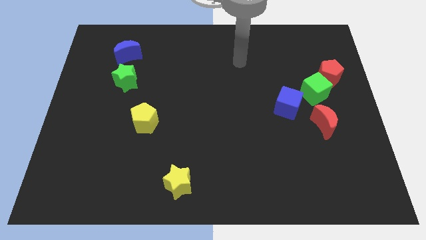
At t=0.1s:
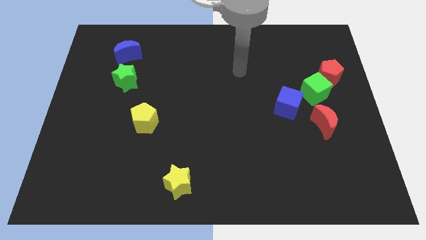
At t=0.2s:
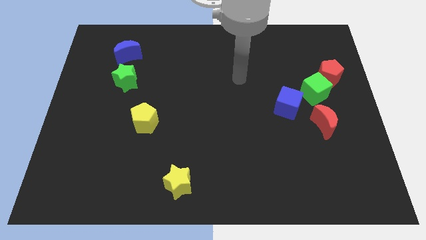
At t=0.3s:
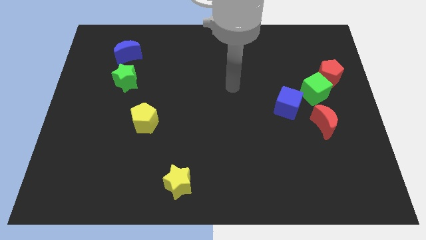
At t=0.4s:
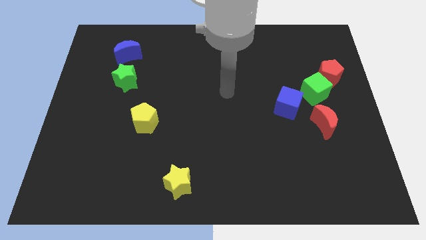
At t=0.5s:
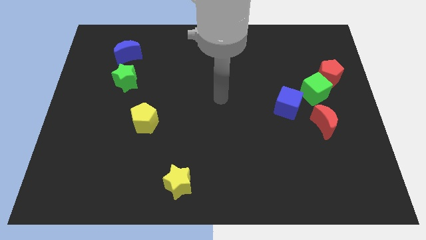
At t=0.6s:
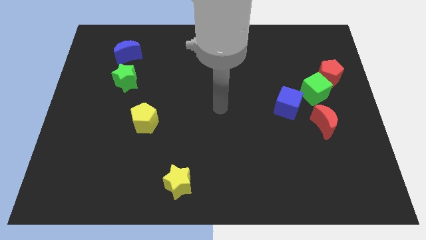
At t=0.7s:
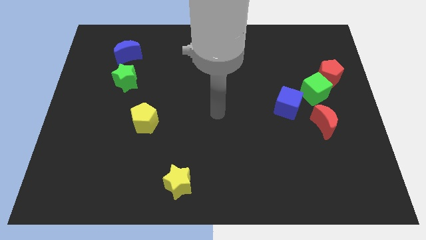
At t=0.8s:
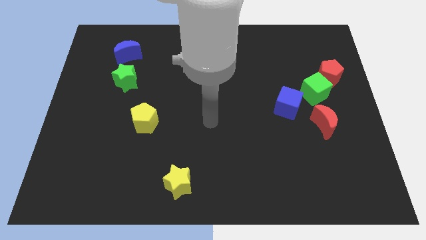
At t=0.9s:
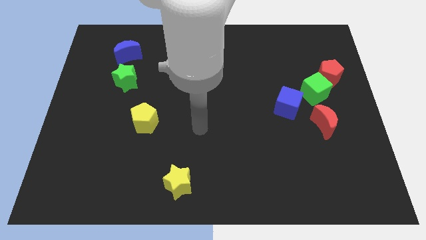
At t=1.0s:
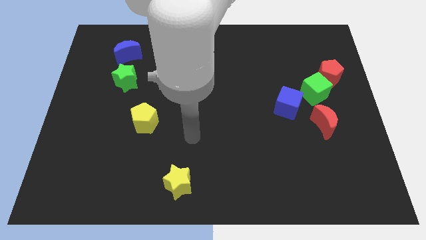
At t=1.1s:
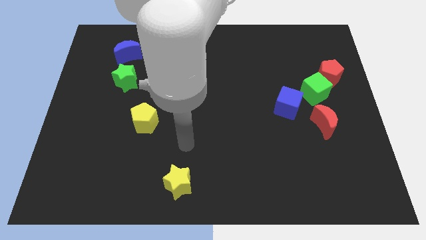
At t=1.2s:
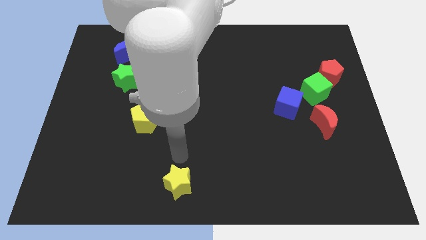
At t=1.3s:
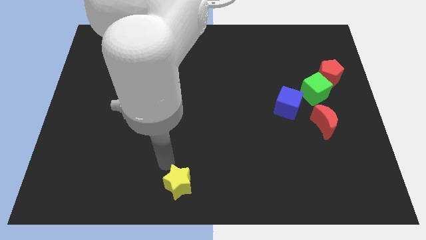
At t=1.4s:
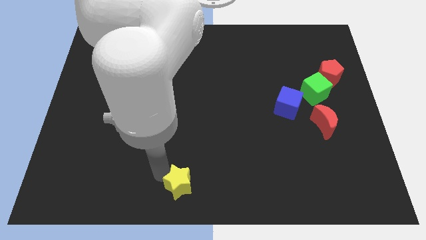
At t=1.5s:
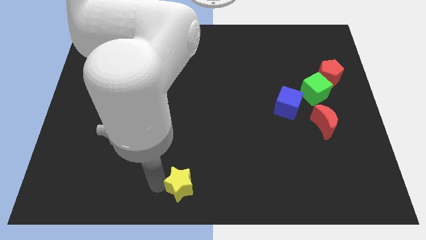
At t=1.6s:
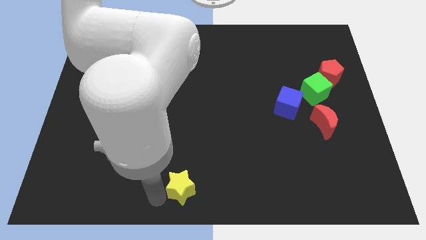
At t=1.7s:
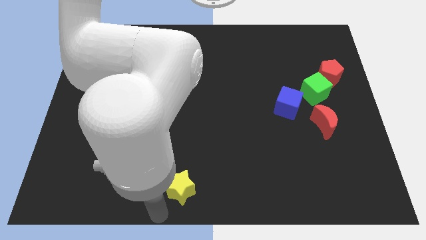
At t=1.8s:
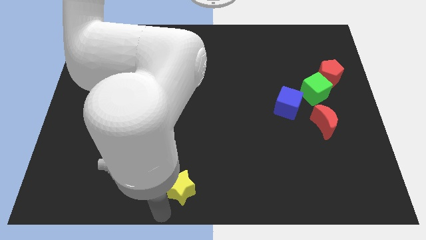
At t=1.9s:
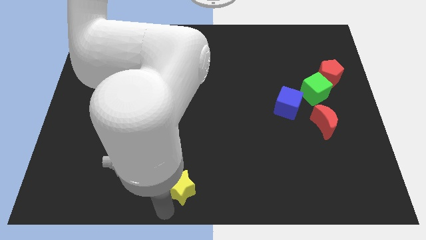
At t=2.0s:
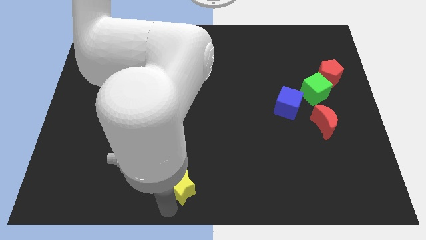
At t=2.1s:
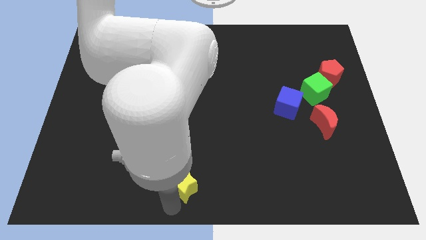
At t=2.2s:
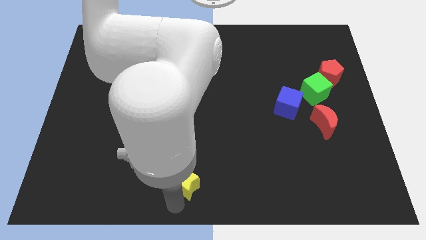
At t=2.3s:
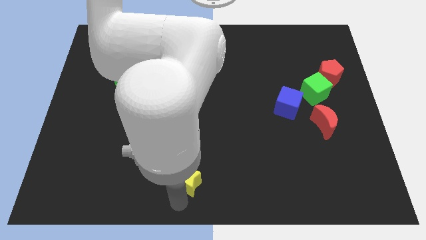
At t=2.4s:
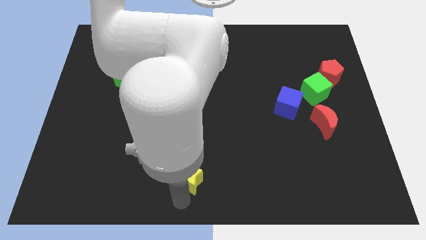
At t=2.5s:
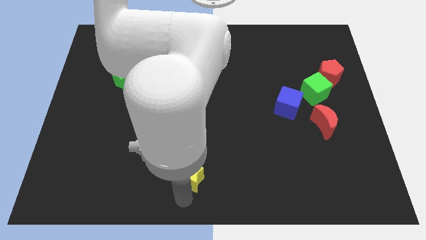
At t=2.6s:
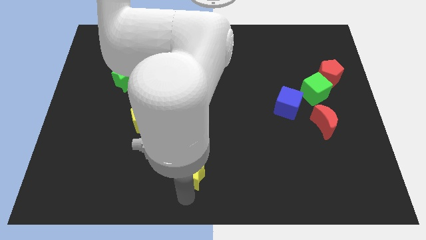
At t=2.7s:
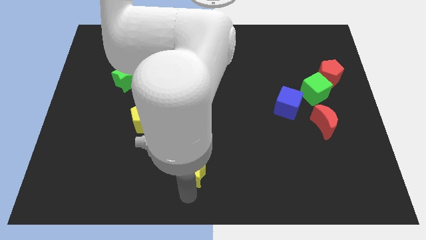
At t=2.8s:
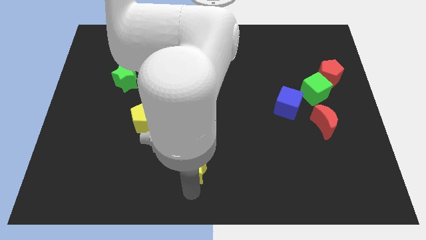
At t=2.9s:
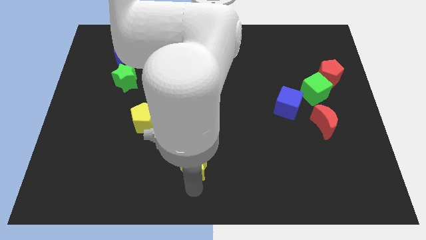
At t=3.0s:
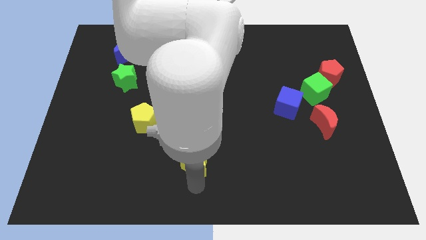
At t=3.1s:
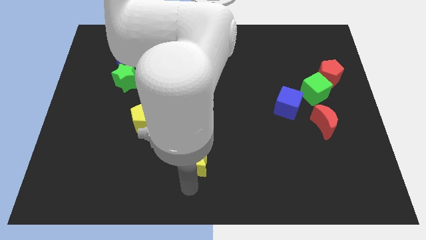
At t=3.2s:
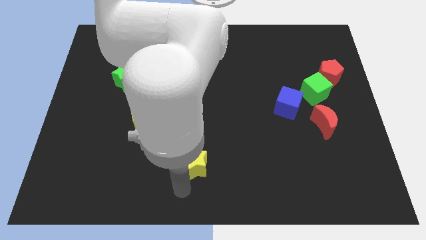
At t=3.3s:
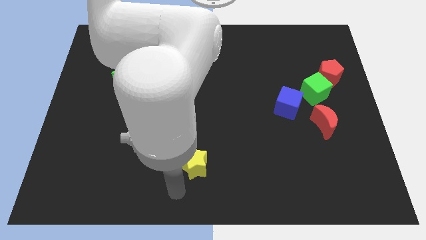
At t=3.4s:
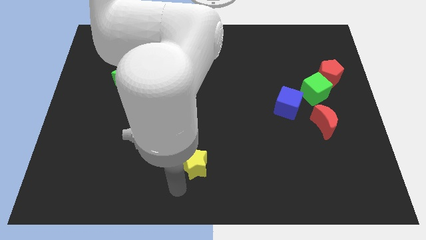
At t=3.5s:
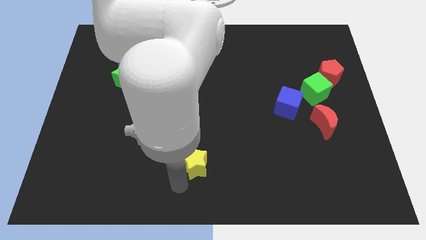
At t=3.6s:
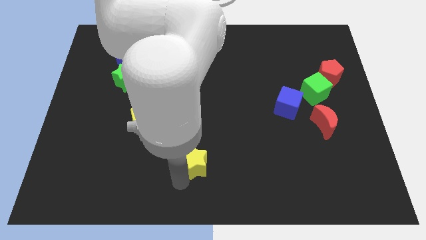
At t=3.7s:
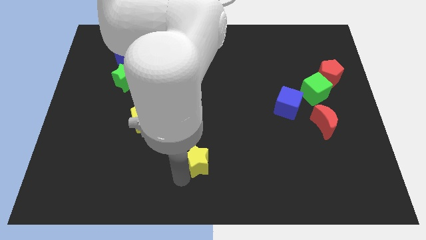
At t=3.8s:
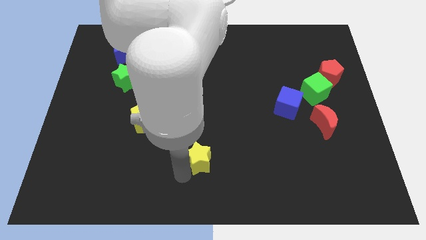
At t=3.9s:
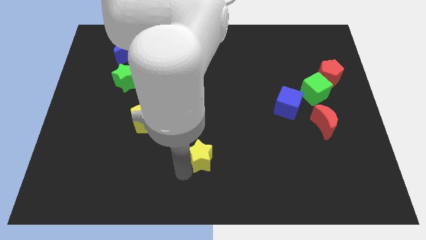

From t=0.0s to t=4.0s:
push the yellow star up and then right slightly

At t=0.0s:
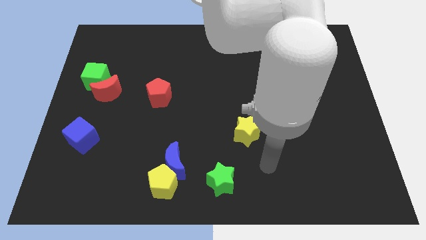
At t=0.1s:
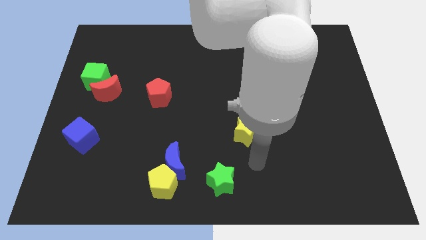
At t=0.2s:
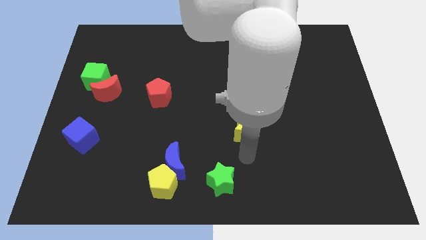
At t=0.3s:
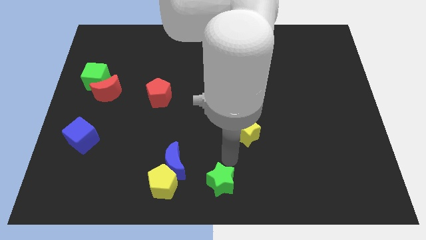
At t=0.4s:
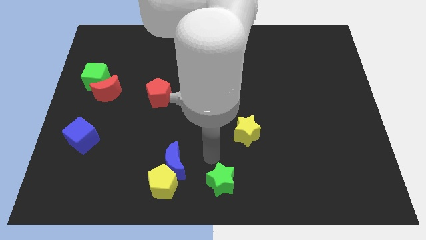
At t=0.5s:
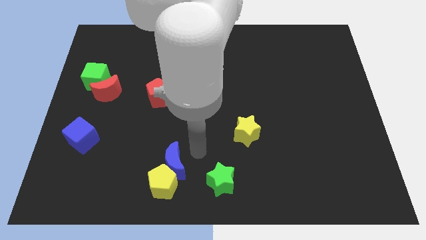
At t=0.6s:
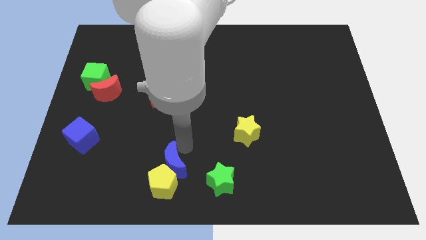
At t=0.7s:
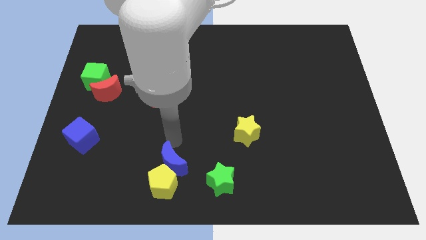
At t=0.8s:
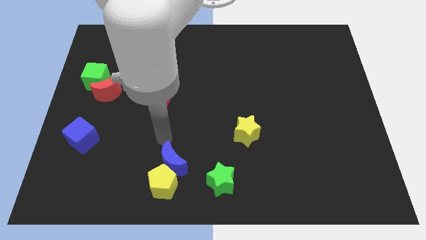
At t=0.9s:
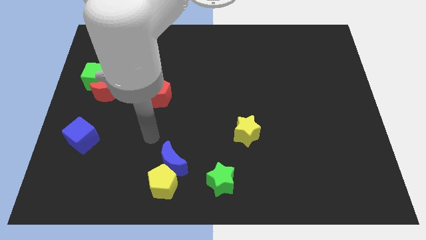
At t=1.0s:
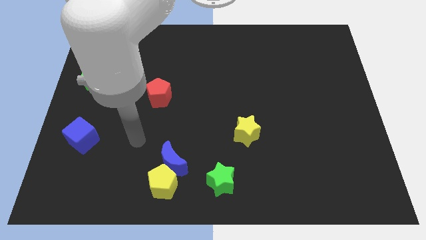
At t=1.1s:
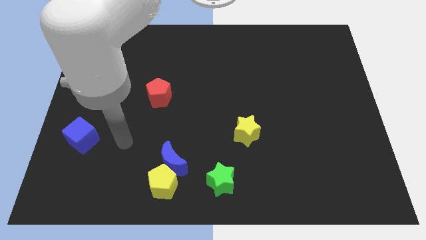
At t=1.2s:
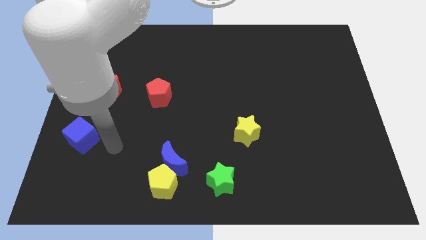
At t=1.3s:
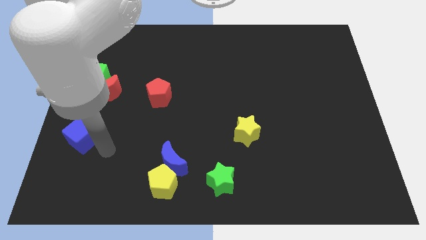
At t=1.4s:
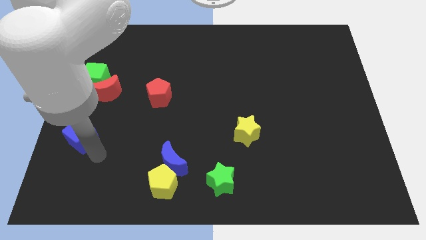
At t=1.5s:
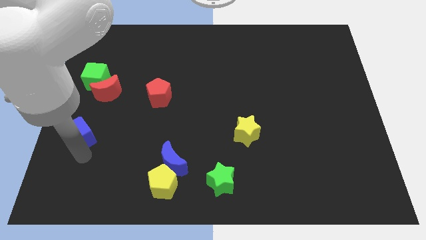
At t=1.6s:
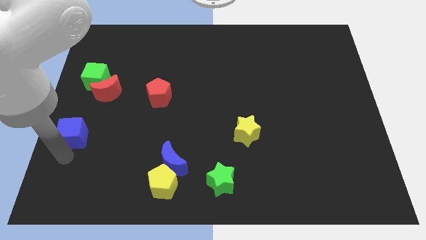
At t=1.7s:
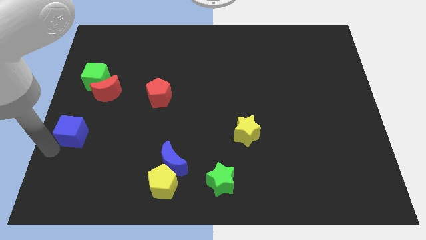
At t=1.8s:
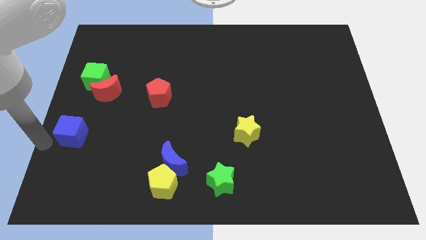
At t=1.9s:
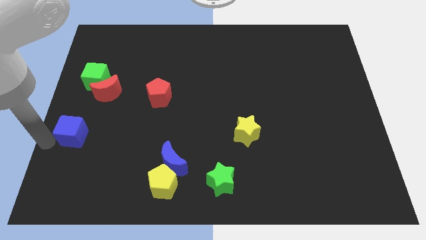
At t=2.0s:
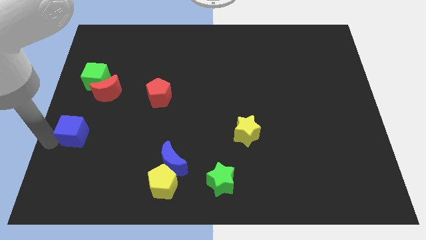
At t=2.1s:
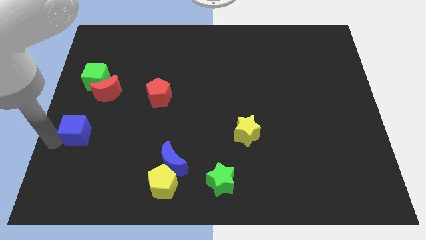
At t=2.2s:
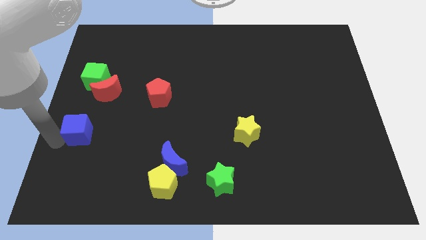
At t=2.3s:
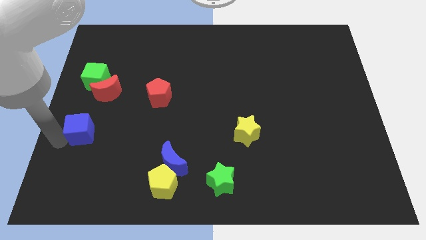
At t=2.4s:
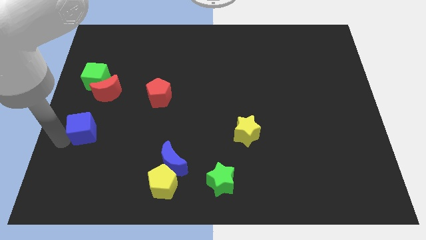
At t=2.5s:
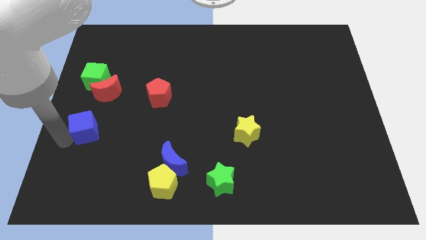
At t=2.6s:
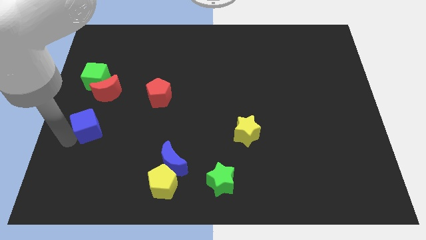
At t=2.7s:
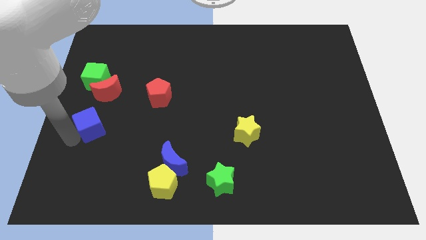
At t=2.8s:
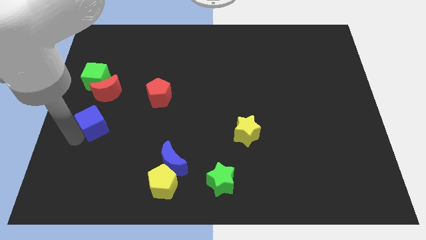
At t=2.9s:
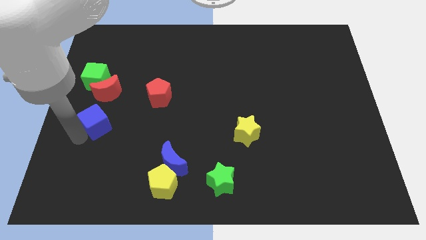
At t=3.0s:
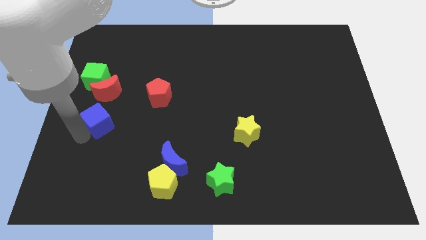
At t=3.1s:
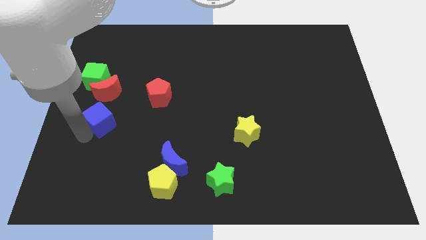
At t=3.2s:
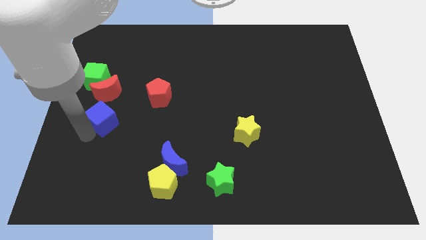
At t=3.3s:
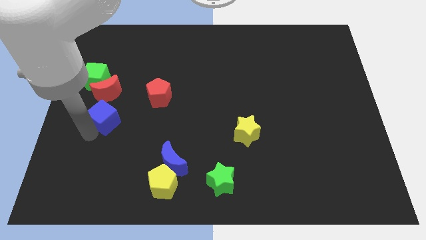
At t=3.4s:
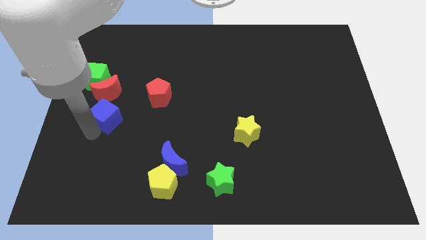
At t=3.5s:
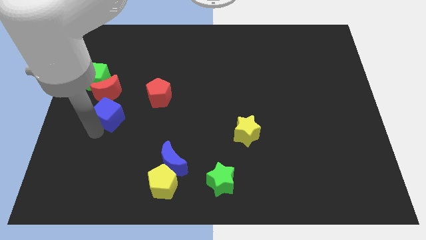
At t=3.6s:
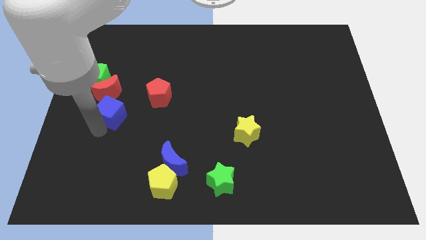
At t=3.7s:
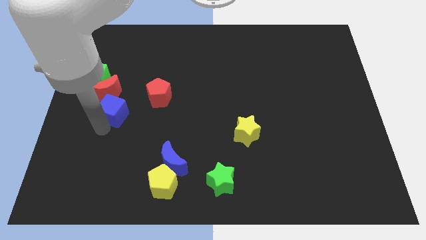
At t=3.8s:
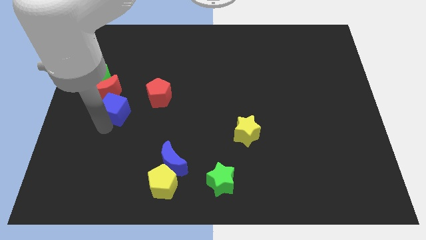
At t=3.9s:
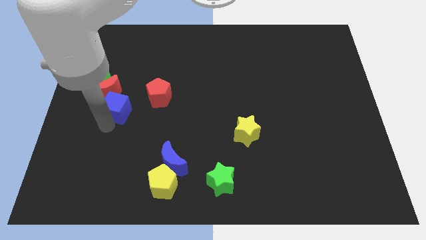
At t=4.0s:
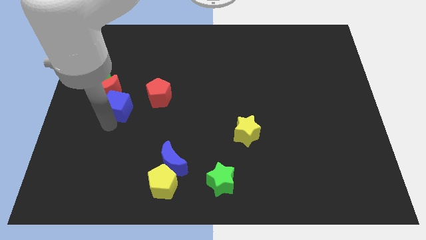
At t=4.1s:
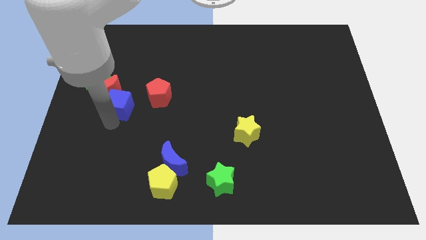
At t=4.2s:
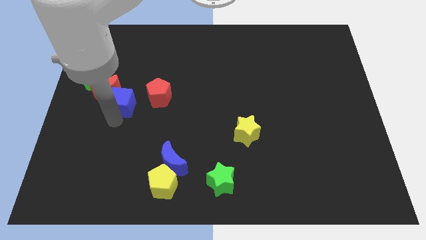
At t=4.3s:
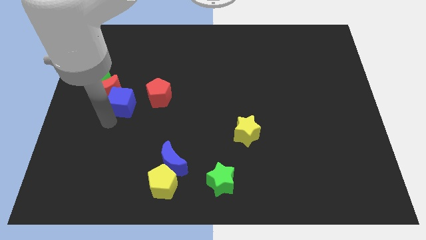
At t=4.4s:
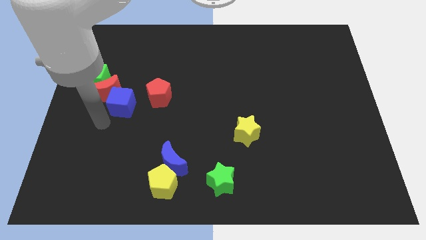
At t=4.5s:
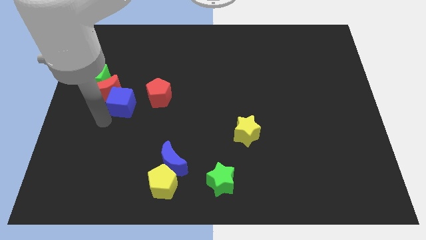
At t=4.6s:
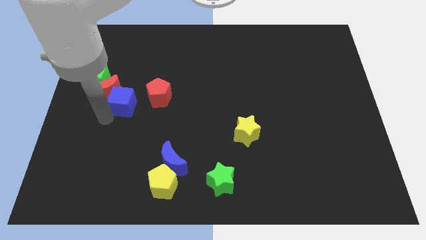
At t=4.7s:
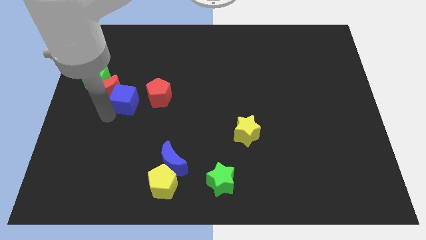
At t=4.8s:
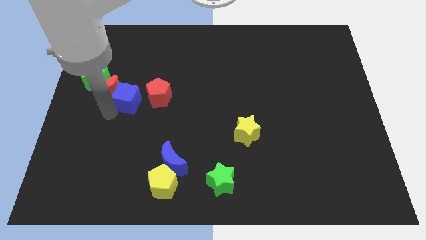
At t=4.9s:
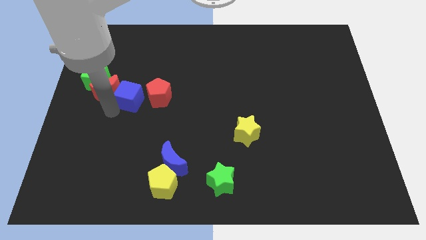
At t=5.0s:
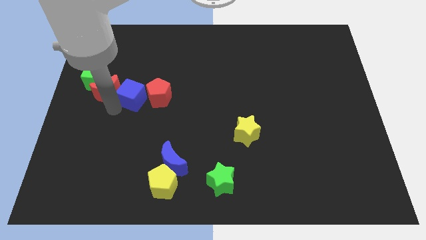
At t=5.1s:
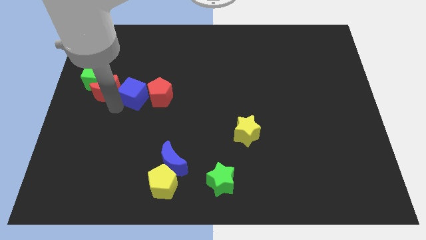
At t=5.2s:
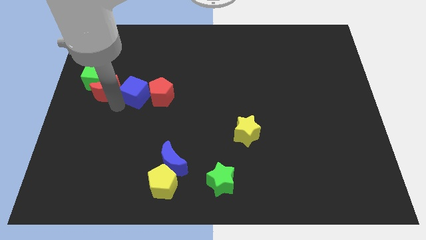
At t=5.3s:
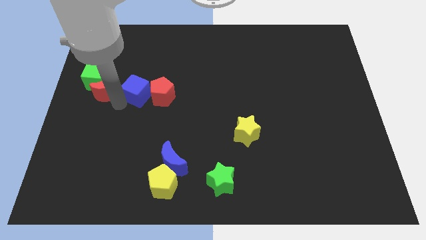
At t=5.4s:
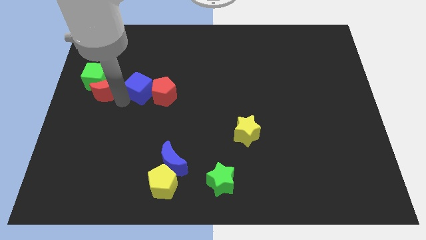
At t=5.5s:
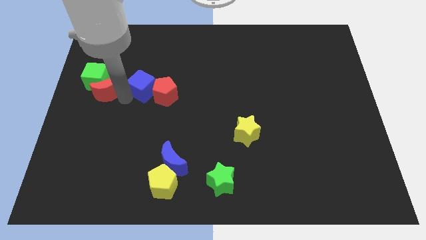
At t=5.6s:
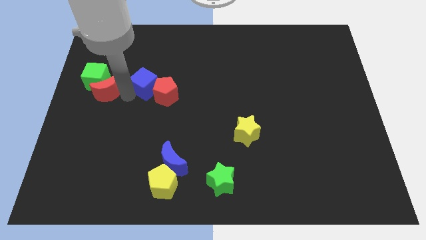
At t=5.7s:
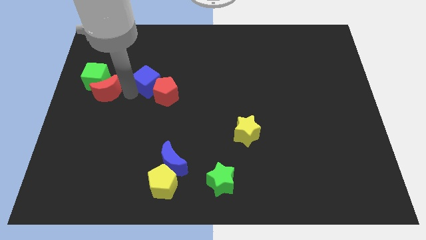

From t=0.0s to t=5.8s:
move the blue cube upwards and right diagonally
